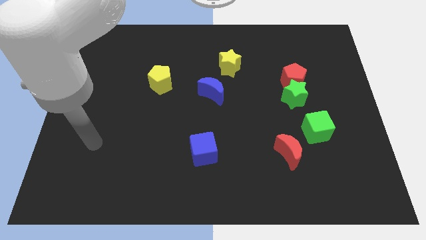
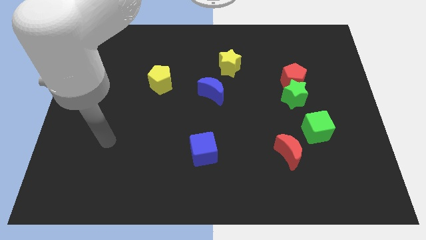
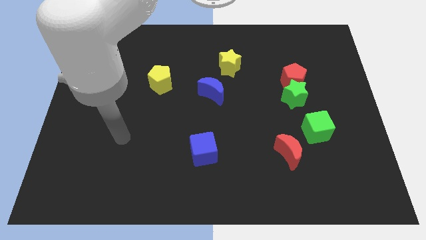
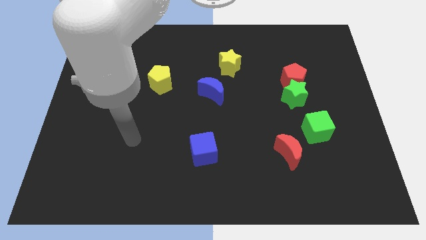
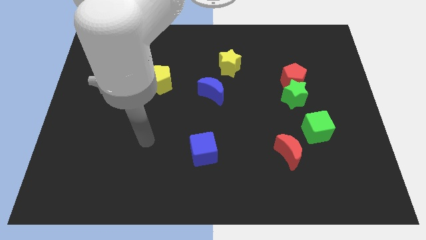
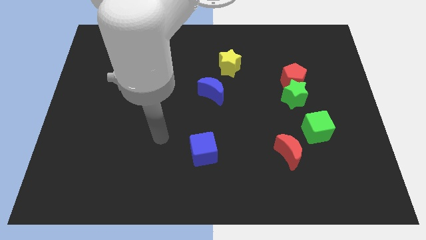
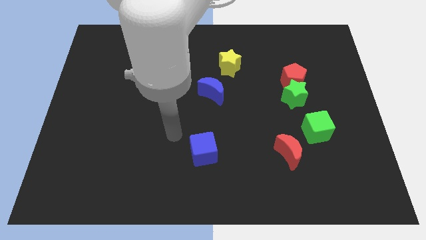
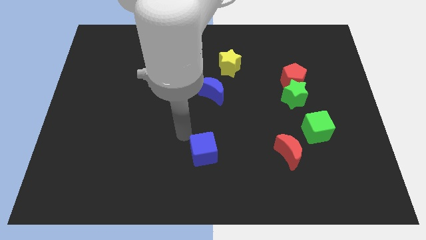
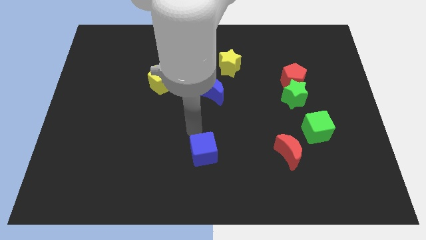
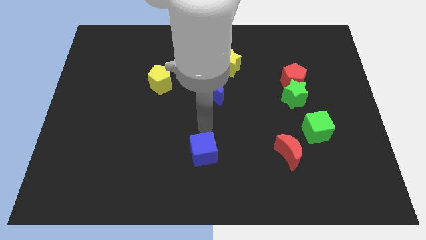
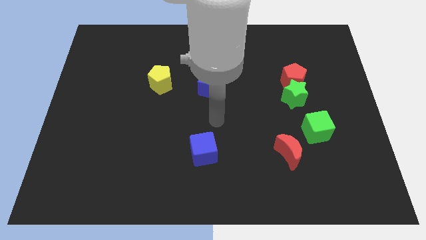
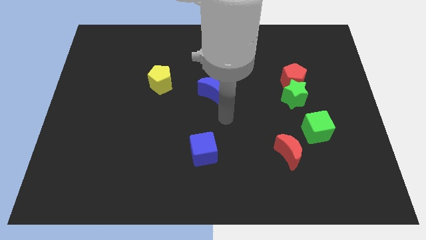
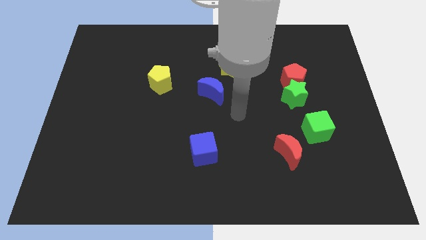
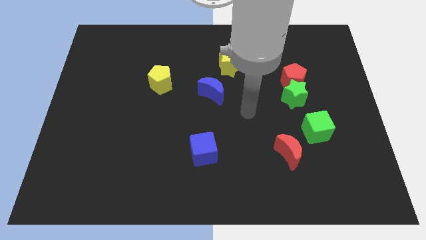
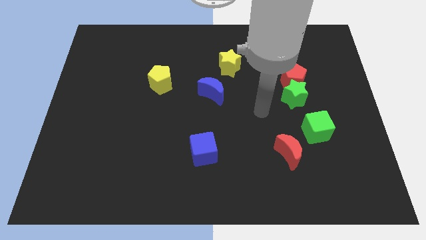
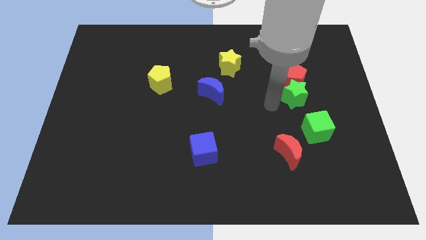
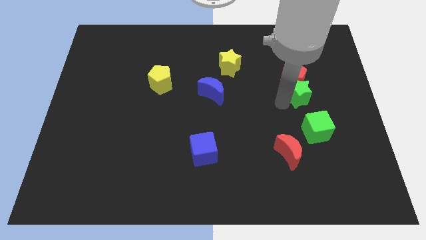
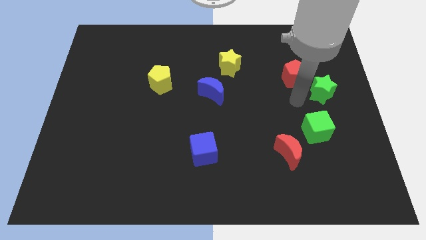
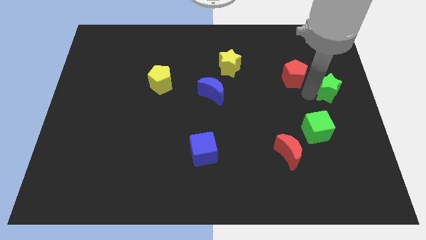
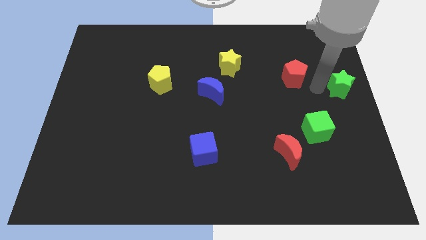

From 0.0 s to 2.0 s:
pull the red pentagon apart from the green star

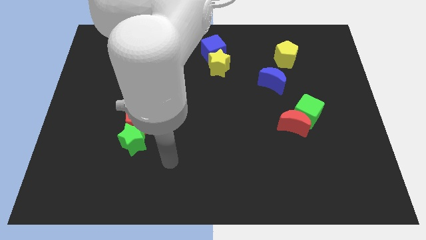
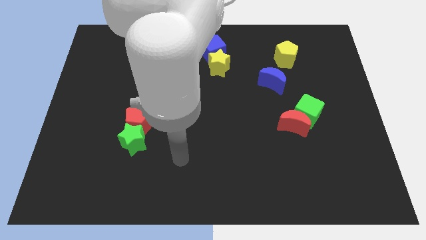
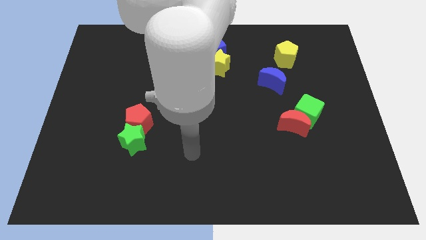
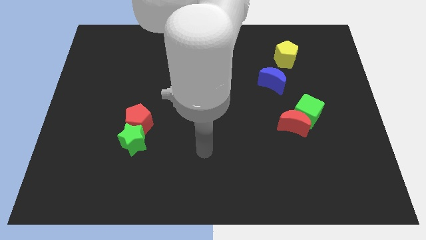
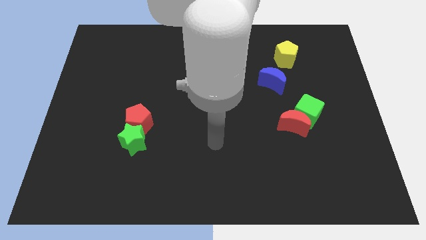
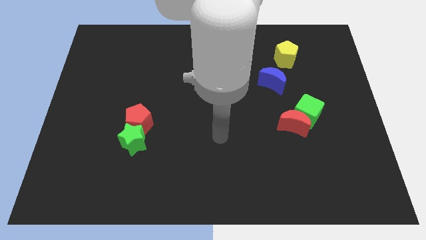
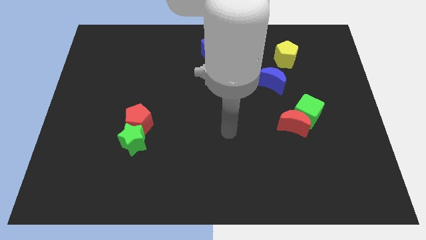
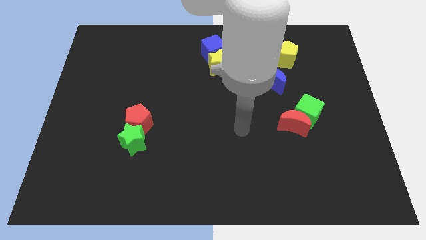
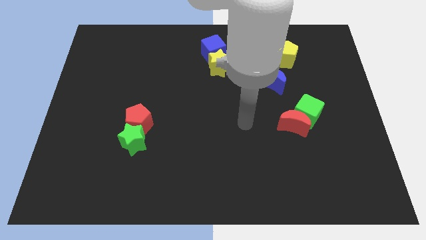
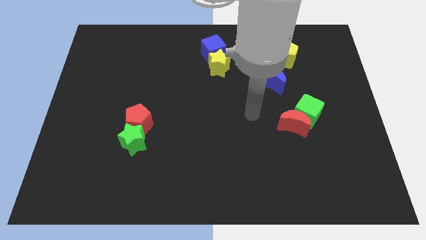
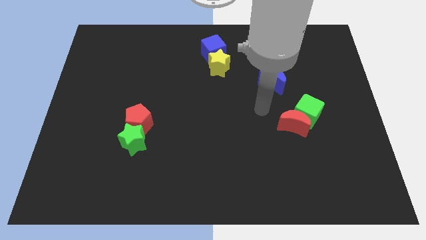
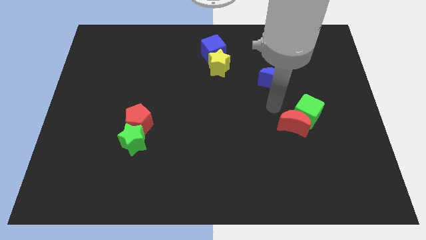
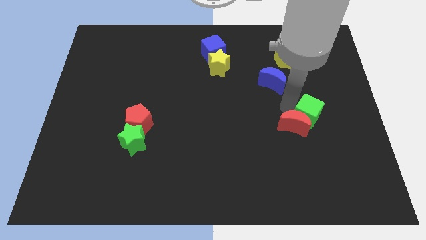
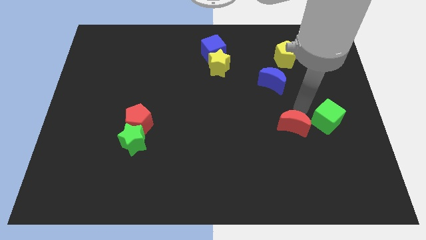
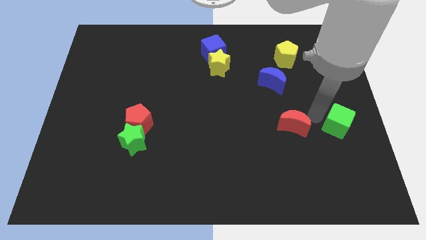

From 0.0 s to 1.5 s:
move the red moon away from the green cube

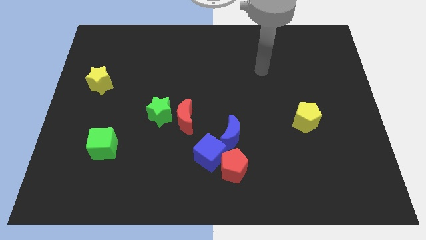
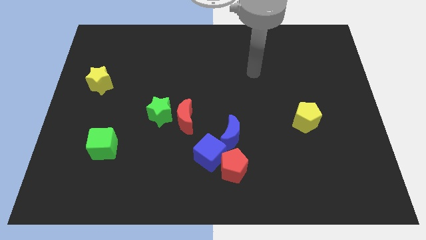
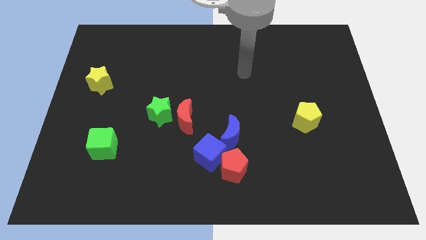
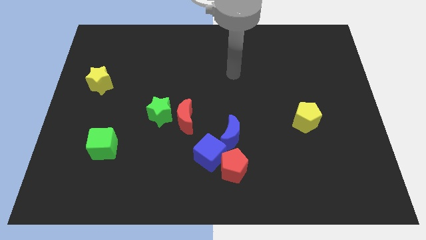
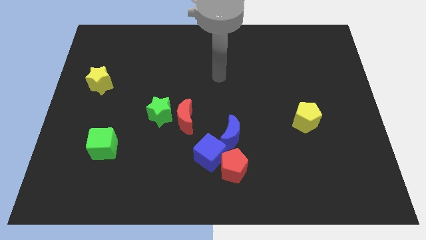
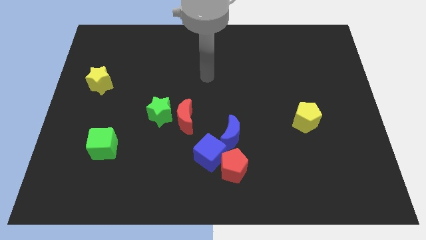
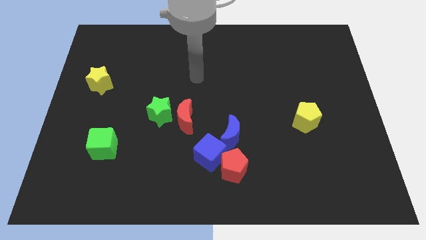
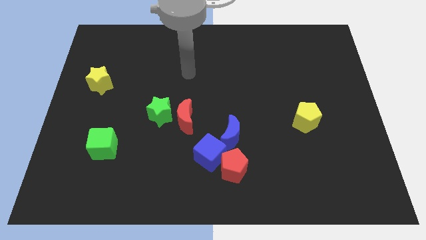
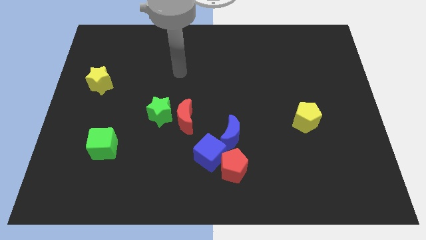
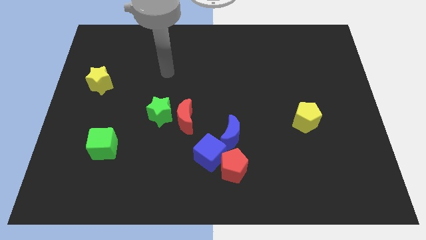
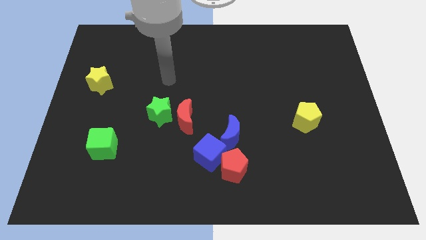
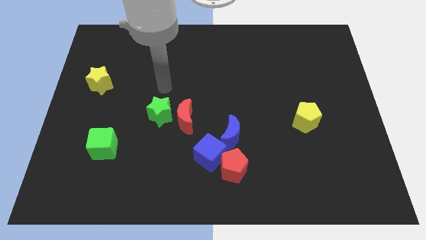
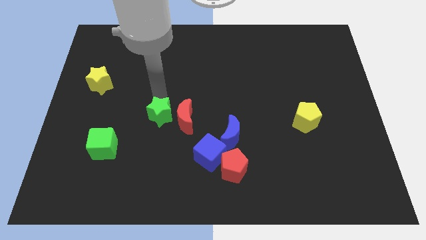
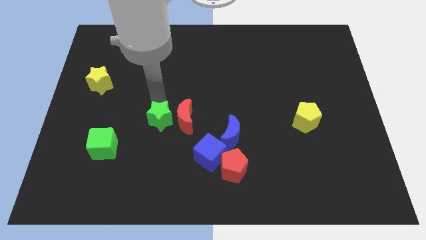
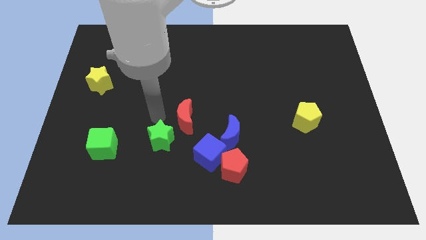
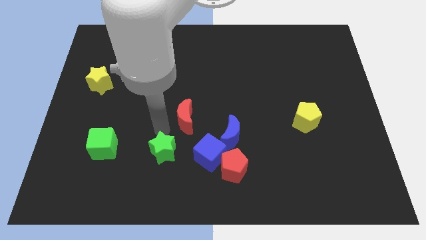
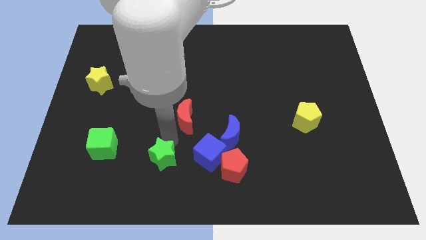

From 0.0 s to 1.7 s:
move the red moon away from the green star

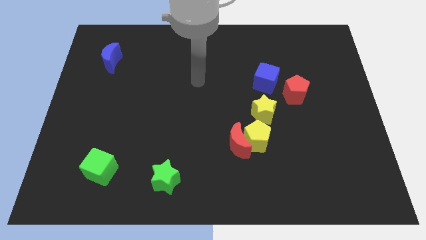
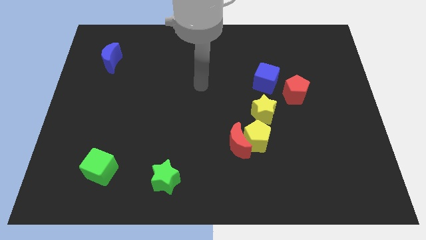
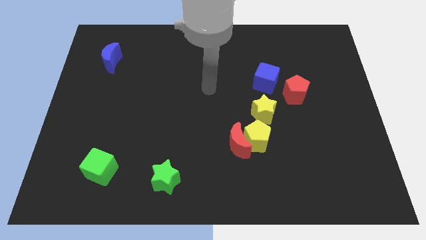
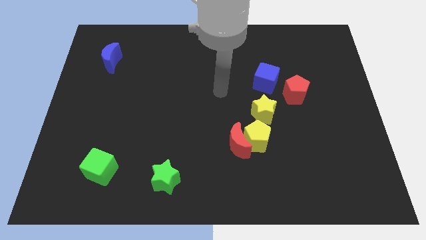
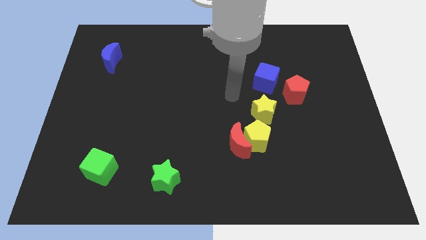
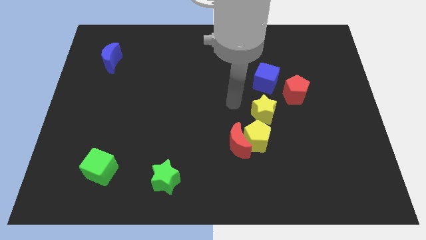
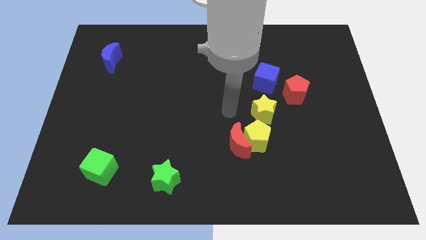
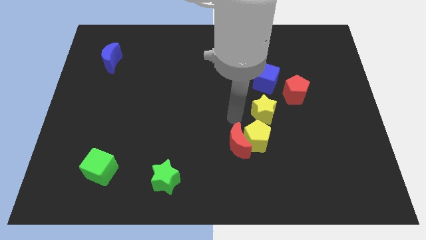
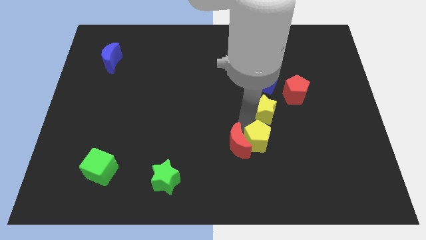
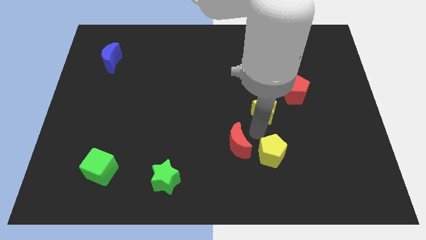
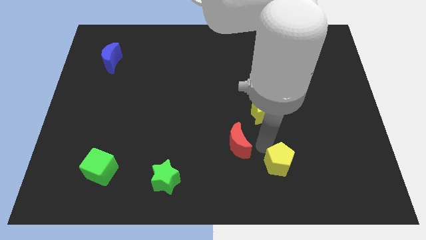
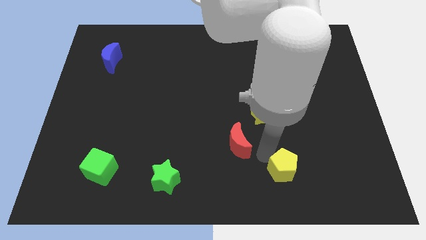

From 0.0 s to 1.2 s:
move the red moon away from the yellow pentagon

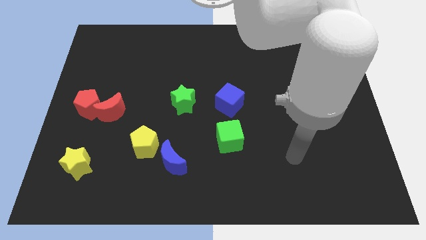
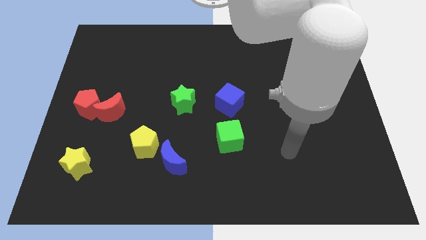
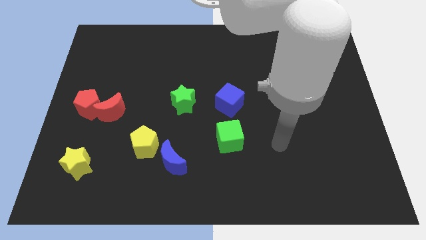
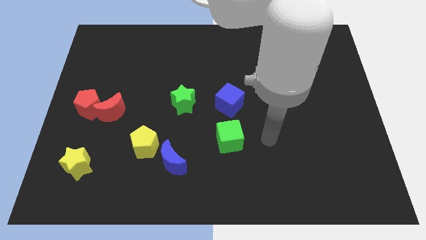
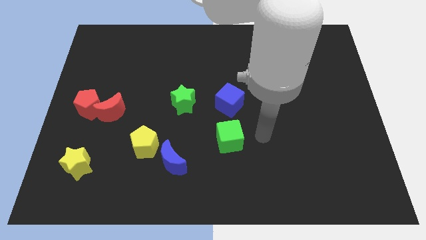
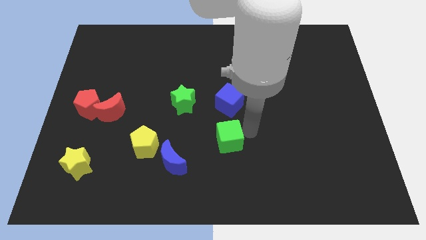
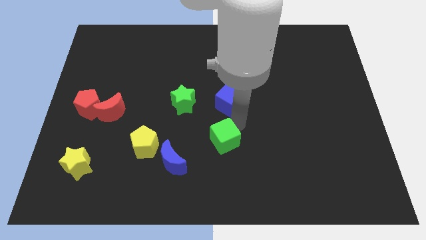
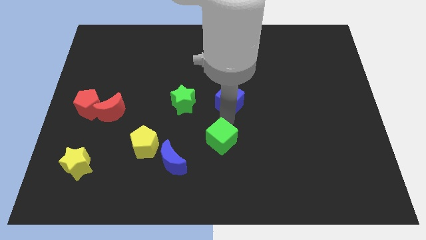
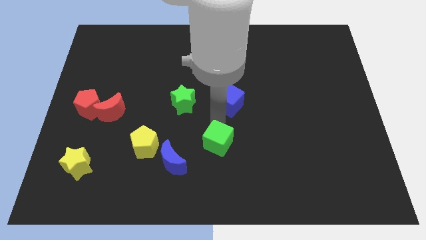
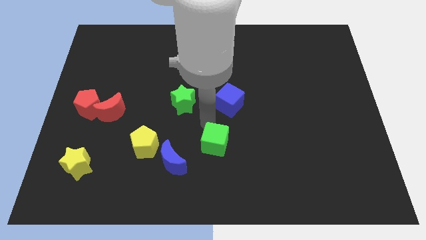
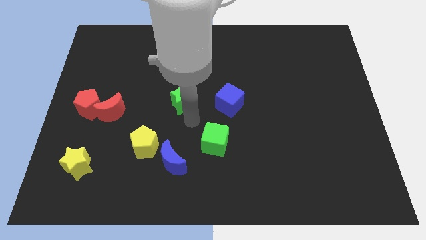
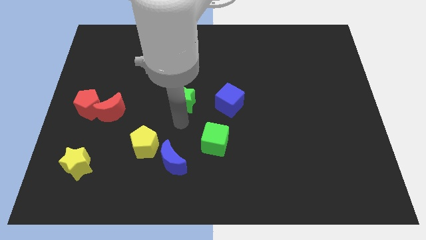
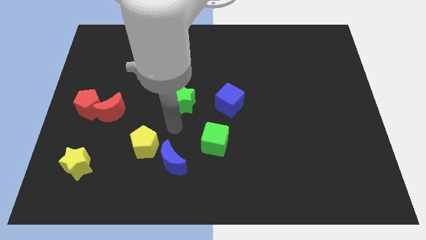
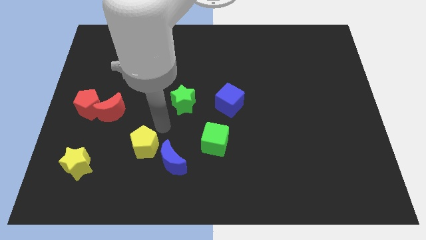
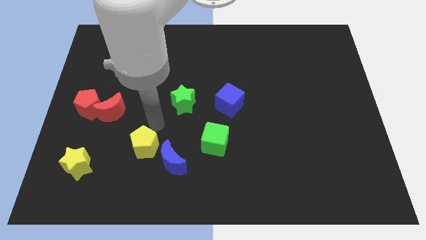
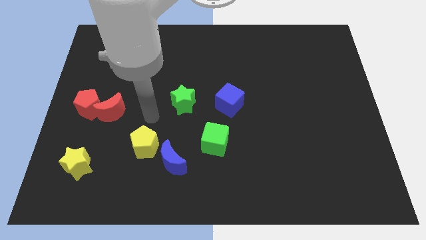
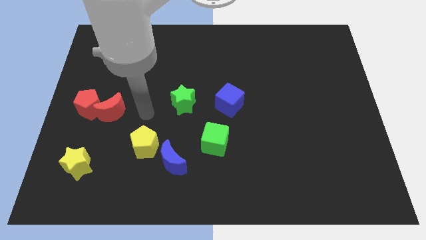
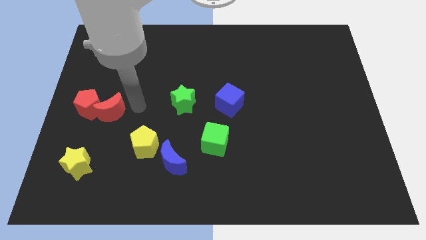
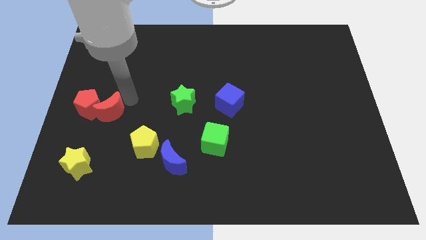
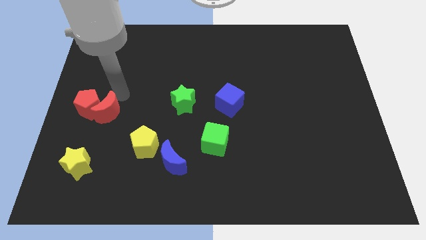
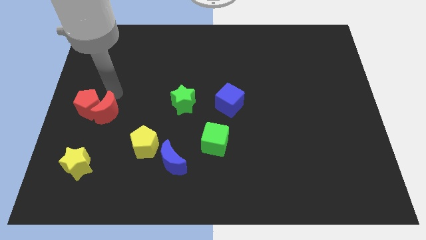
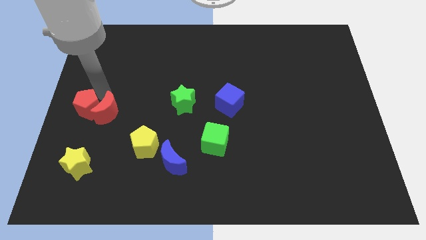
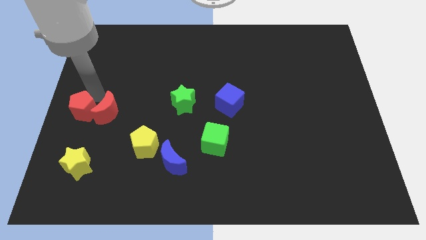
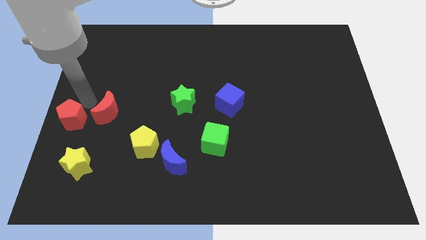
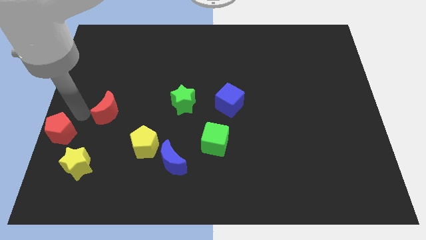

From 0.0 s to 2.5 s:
separate the red moon from the red pentagon
